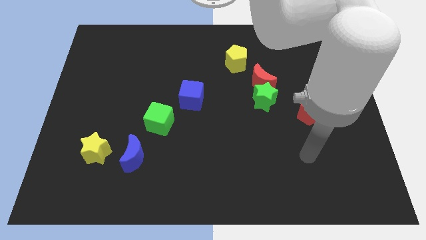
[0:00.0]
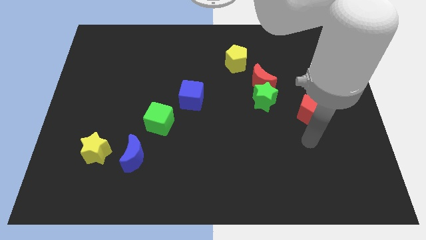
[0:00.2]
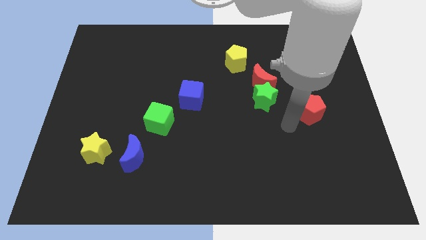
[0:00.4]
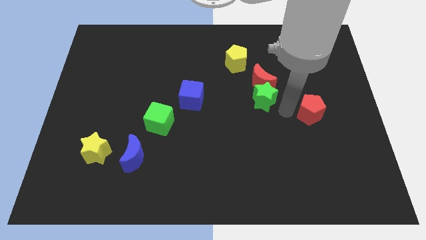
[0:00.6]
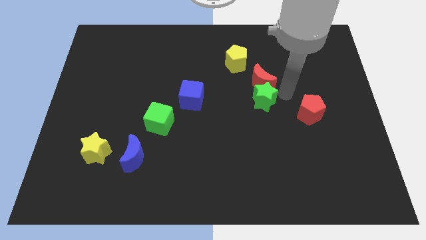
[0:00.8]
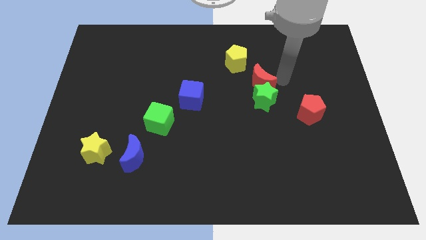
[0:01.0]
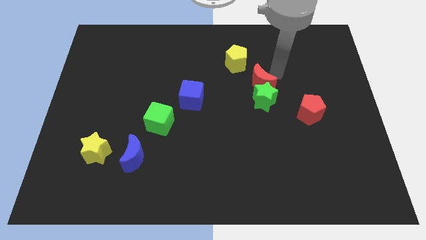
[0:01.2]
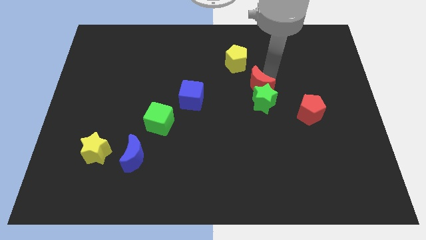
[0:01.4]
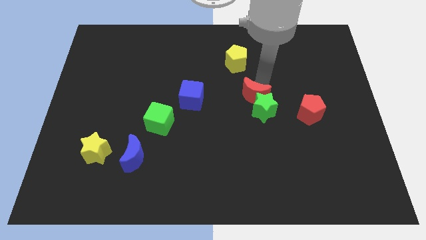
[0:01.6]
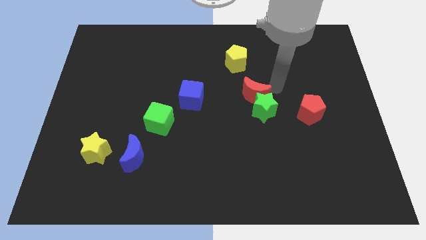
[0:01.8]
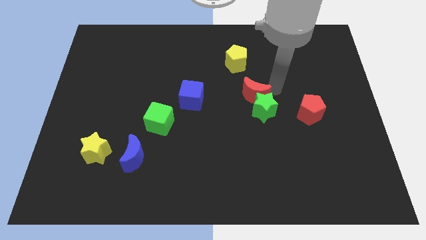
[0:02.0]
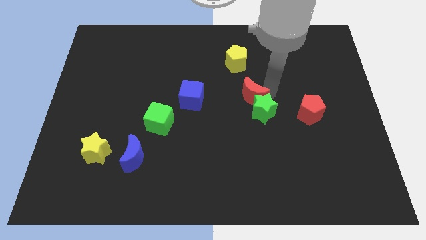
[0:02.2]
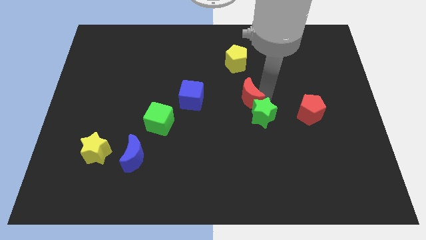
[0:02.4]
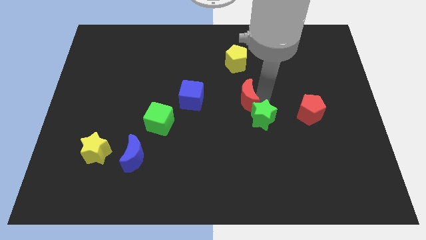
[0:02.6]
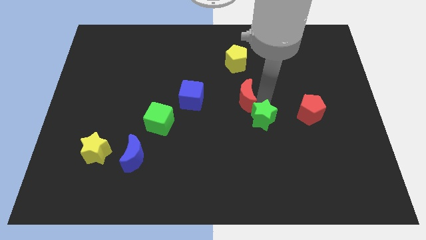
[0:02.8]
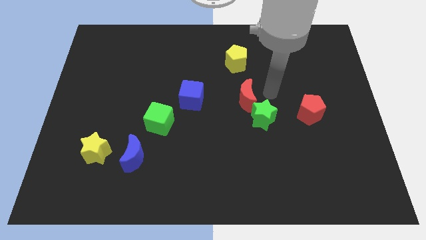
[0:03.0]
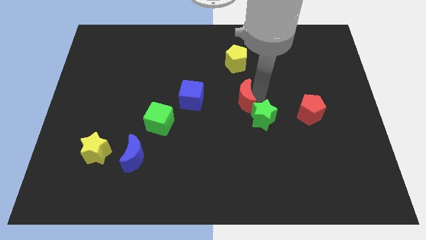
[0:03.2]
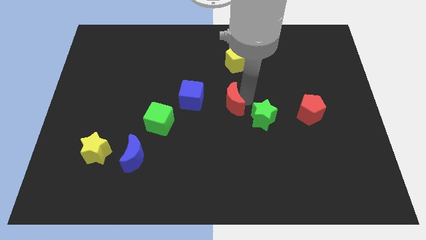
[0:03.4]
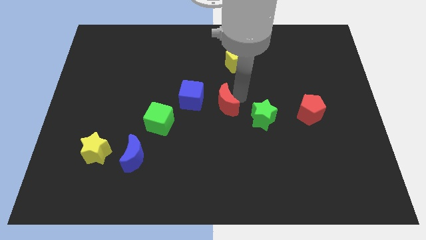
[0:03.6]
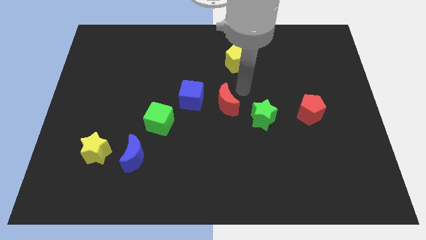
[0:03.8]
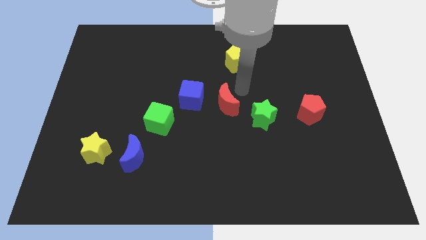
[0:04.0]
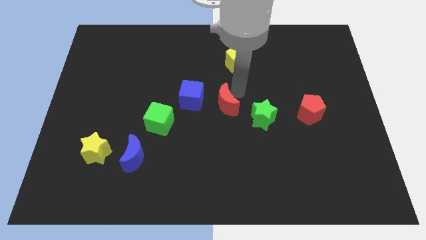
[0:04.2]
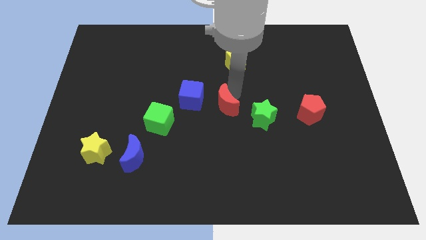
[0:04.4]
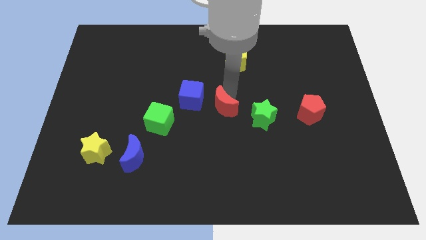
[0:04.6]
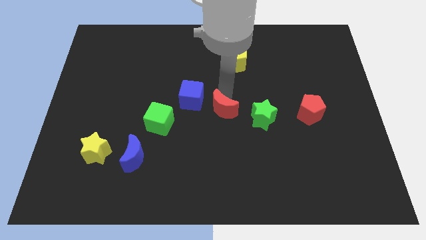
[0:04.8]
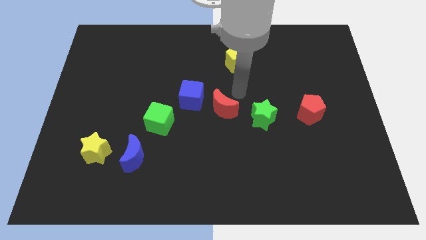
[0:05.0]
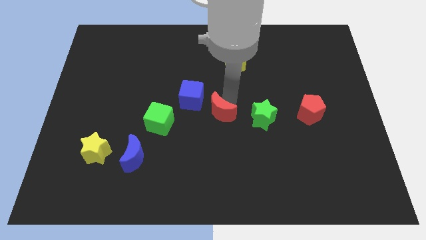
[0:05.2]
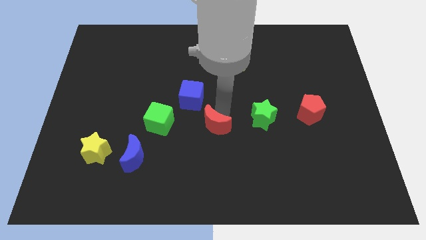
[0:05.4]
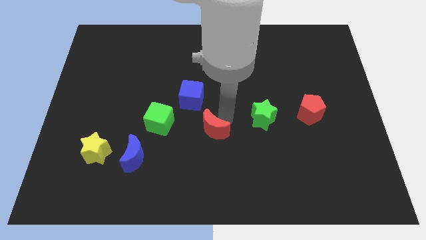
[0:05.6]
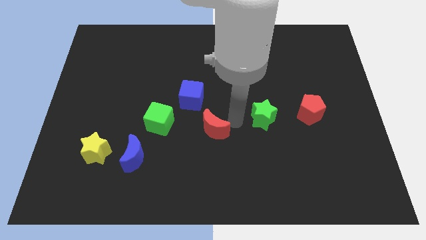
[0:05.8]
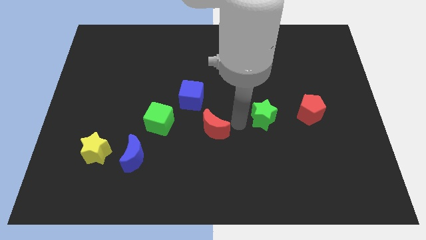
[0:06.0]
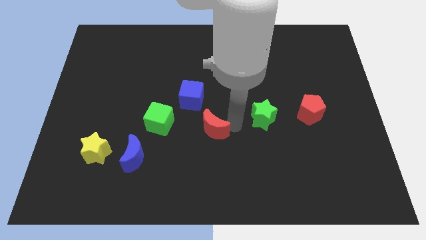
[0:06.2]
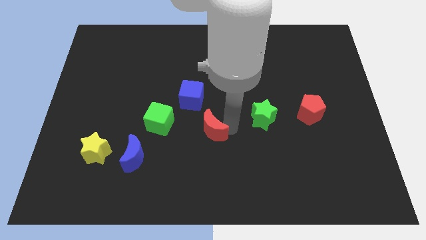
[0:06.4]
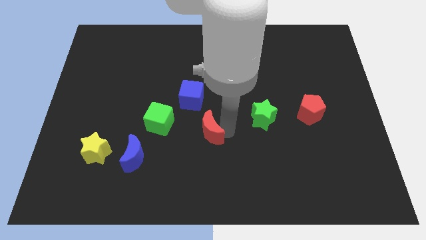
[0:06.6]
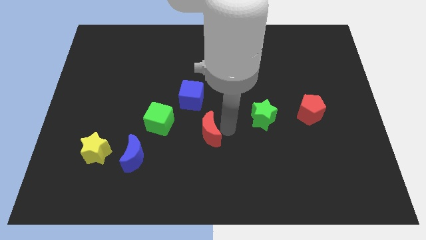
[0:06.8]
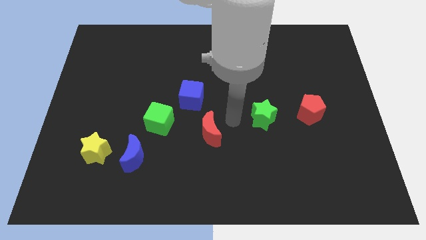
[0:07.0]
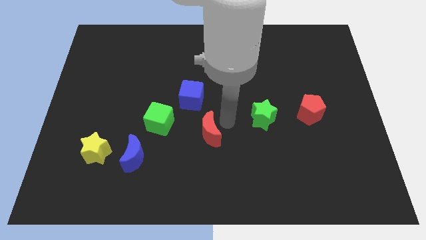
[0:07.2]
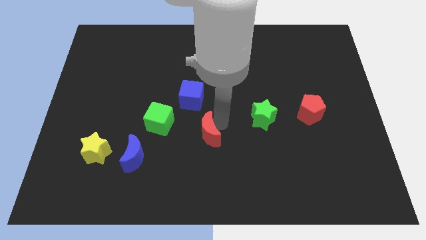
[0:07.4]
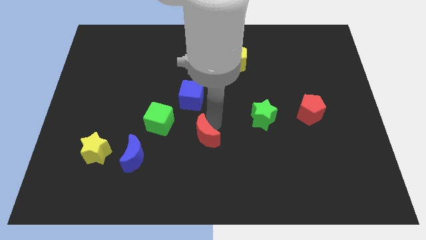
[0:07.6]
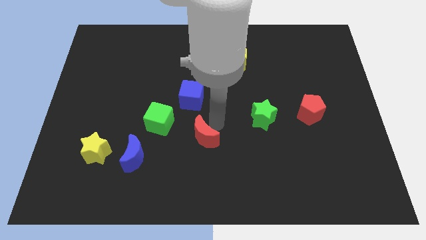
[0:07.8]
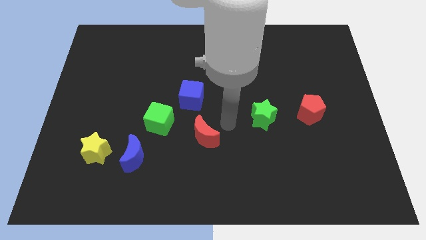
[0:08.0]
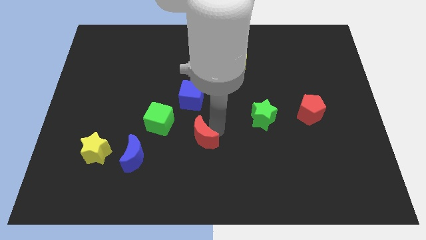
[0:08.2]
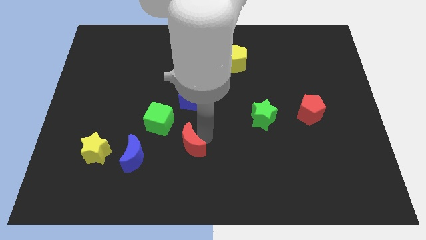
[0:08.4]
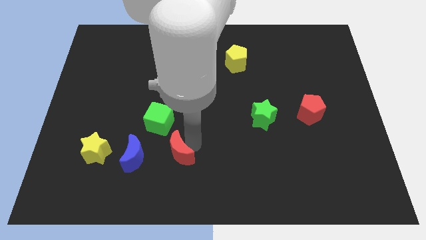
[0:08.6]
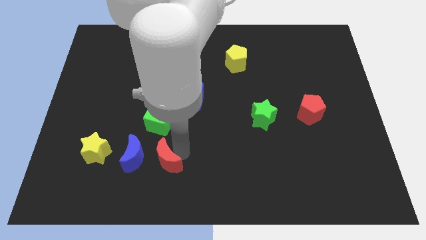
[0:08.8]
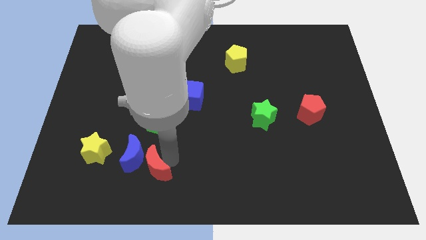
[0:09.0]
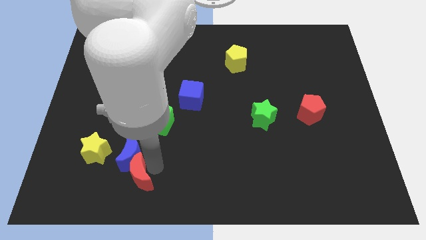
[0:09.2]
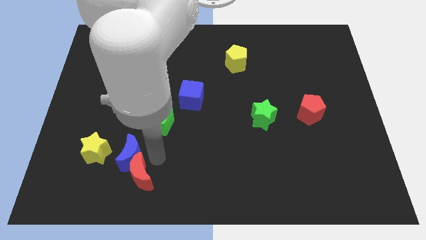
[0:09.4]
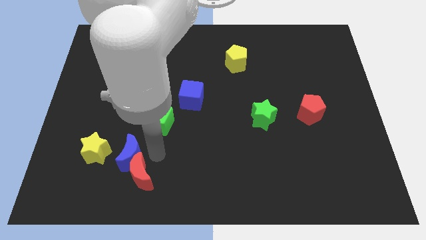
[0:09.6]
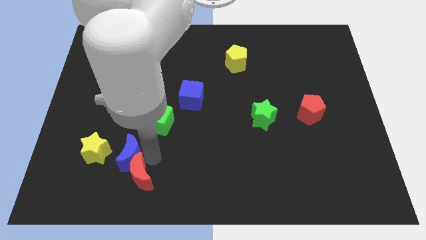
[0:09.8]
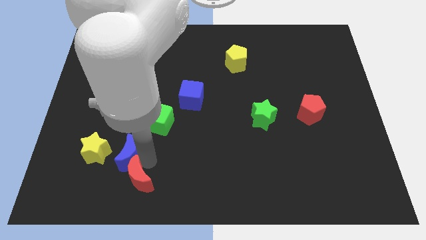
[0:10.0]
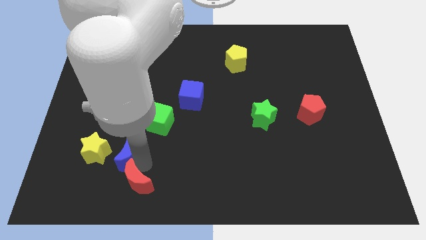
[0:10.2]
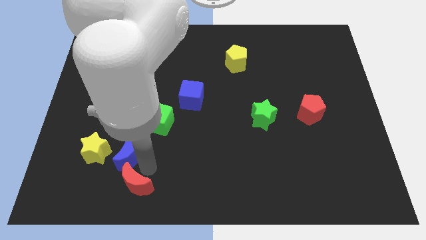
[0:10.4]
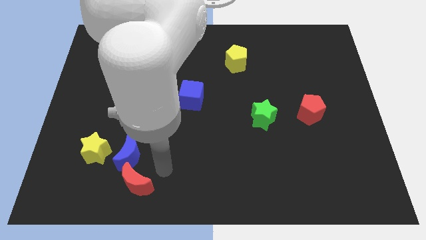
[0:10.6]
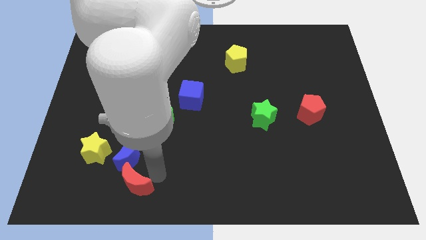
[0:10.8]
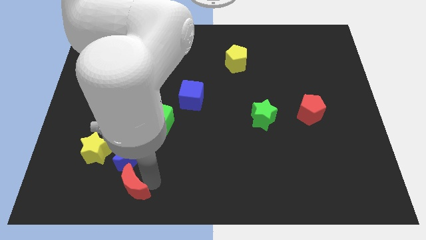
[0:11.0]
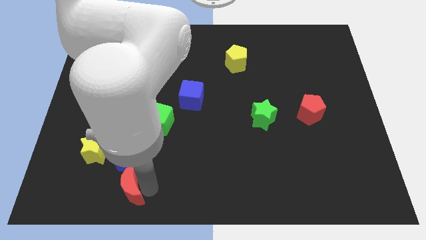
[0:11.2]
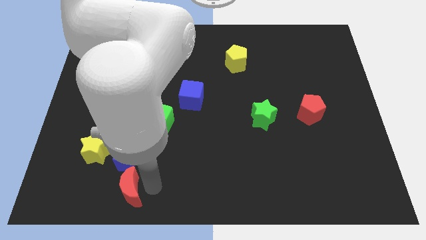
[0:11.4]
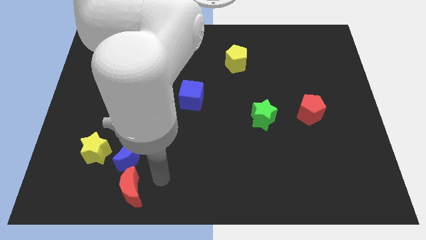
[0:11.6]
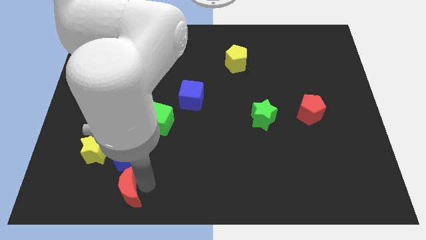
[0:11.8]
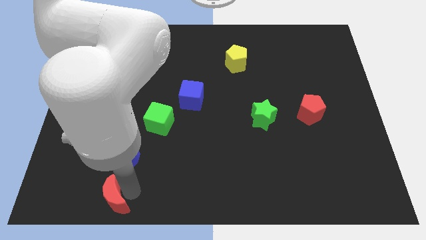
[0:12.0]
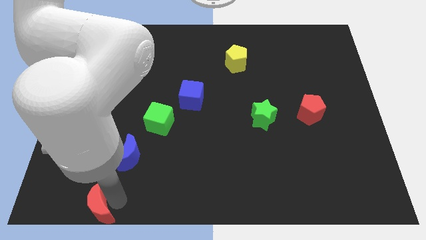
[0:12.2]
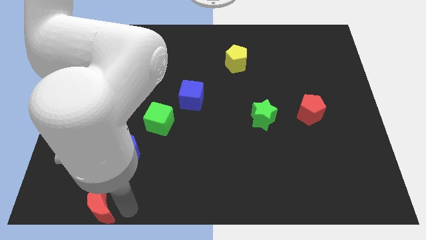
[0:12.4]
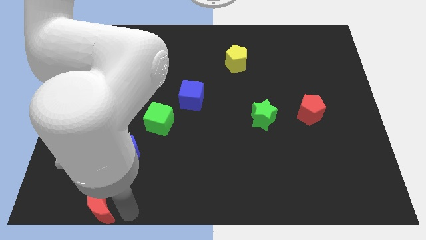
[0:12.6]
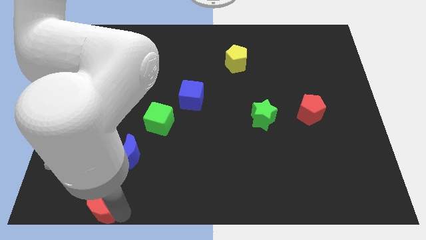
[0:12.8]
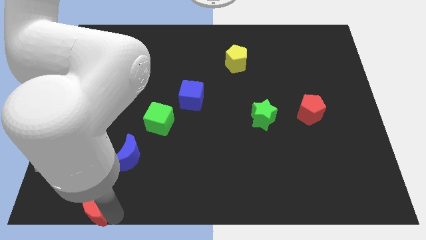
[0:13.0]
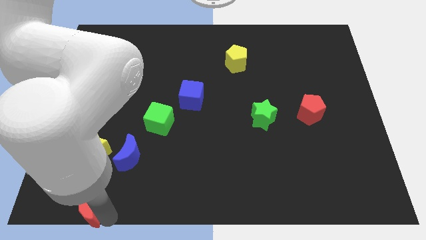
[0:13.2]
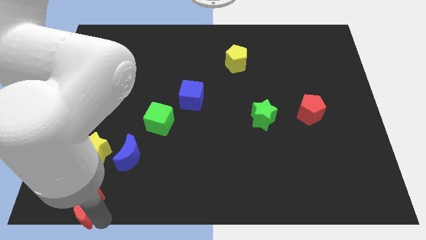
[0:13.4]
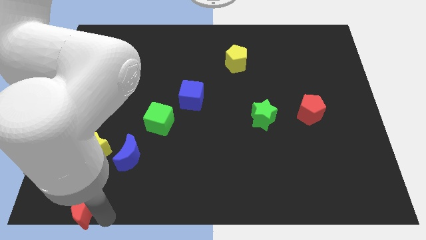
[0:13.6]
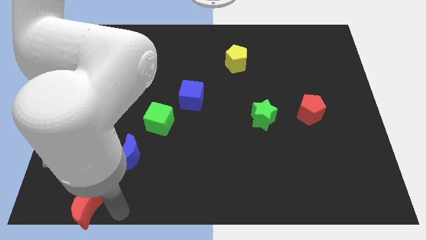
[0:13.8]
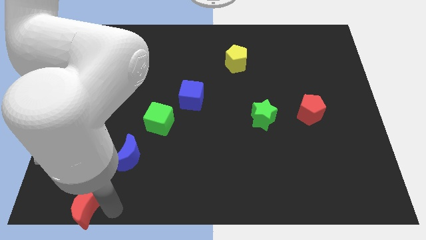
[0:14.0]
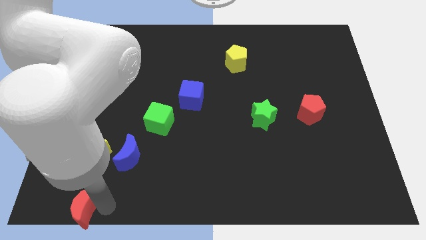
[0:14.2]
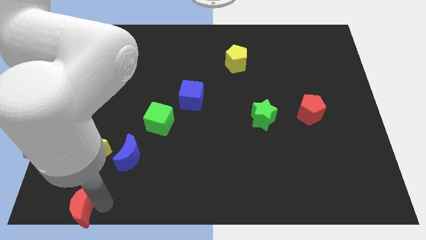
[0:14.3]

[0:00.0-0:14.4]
move the red moon to the bottom left corner
